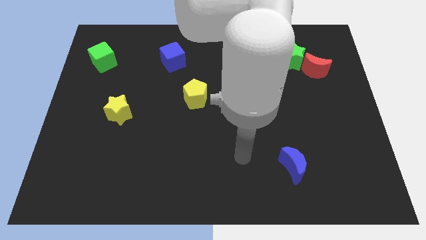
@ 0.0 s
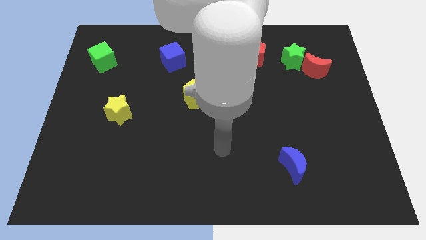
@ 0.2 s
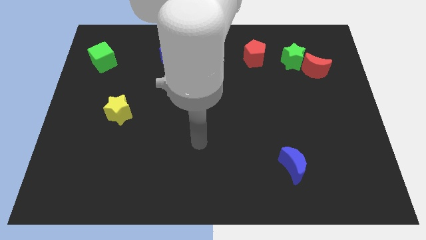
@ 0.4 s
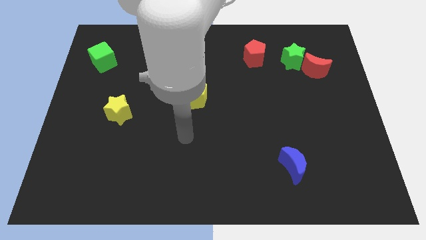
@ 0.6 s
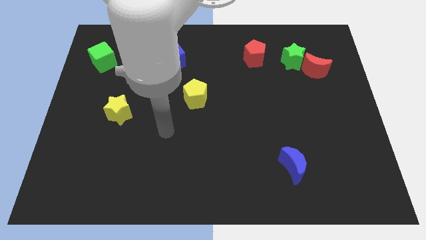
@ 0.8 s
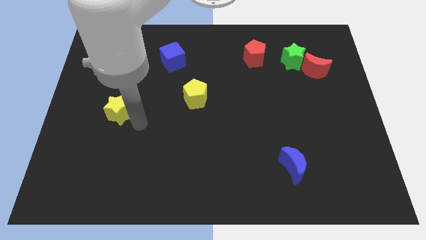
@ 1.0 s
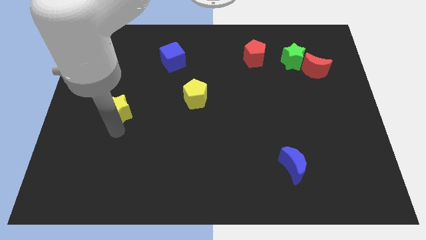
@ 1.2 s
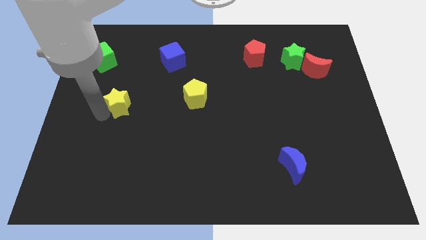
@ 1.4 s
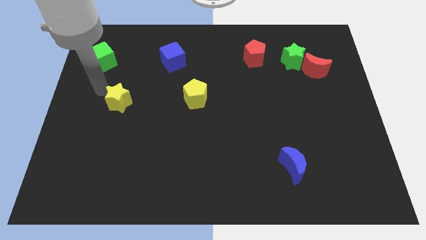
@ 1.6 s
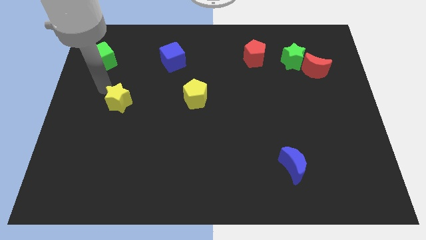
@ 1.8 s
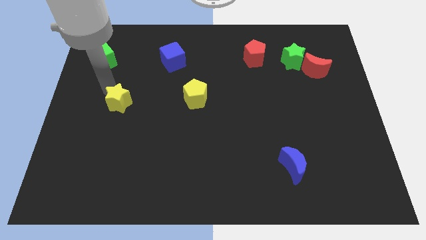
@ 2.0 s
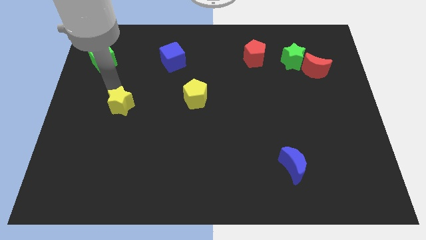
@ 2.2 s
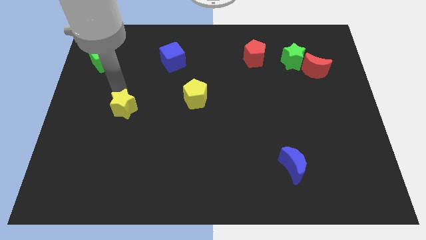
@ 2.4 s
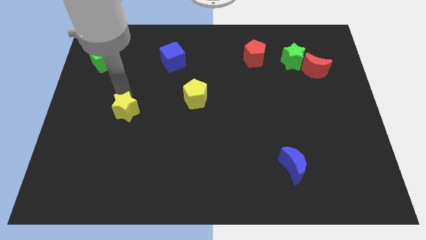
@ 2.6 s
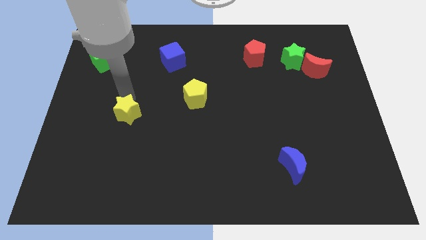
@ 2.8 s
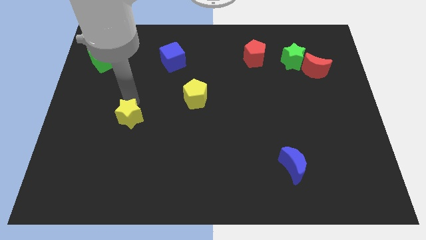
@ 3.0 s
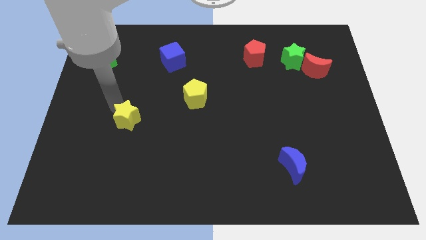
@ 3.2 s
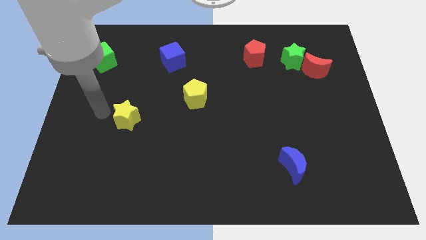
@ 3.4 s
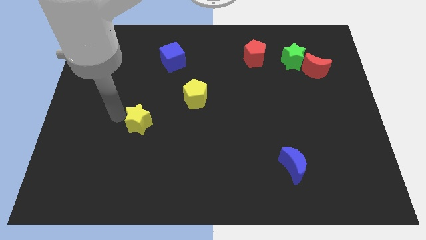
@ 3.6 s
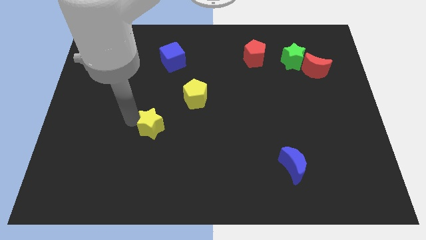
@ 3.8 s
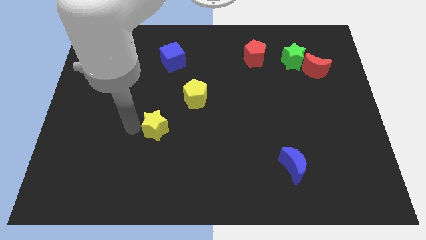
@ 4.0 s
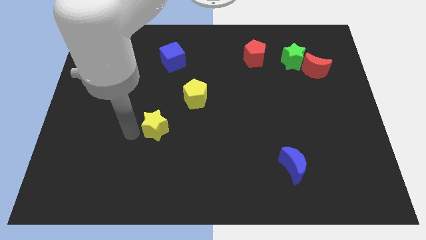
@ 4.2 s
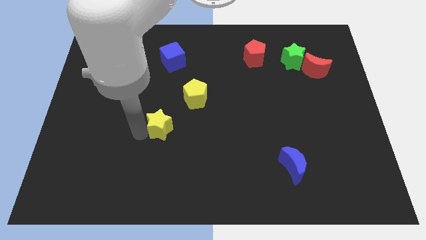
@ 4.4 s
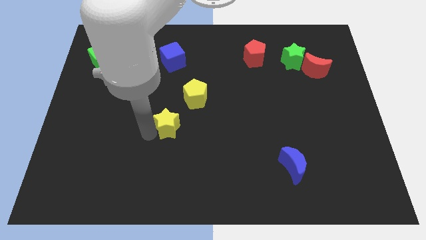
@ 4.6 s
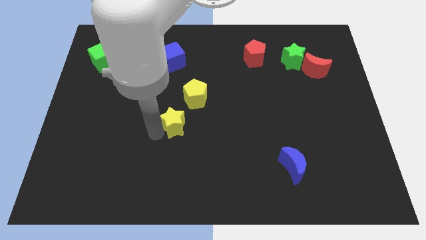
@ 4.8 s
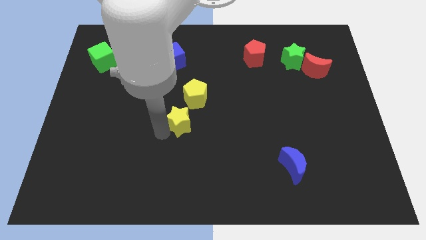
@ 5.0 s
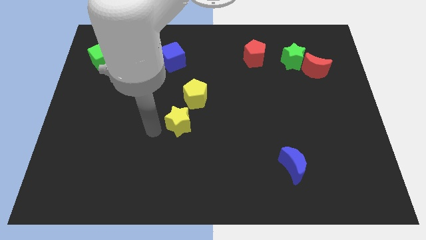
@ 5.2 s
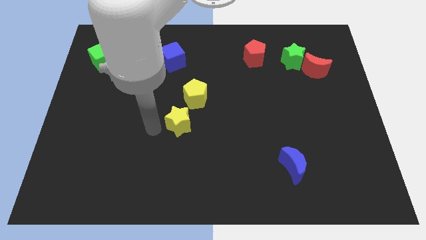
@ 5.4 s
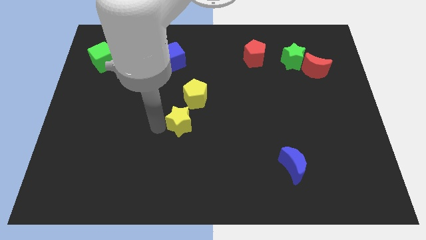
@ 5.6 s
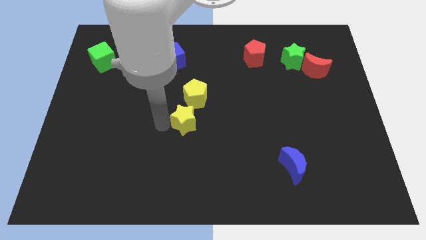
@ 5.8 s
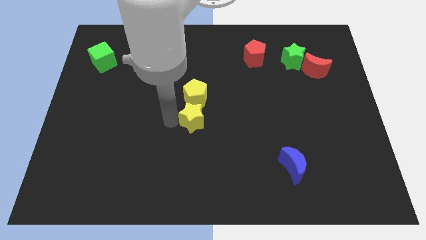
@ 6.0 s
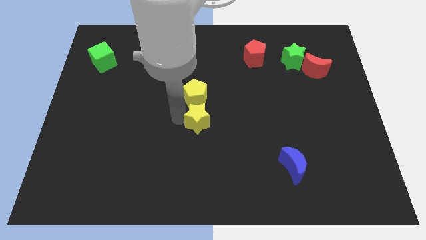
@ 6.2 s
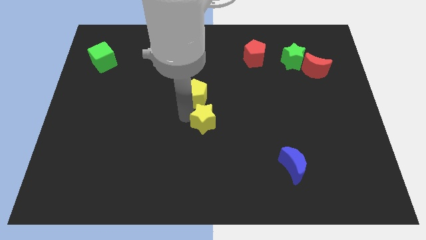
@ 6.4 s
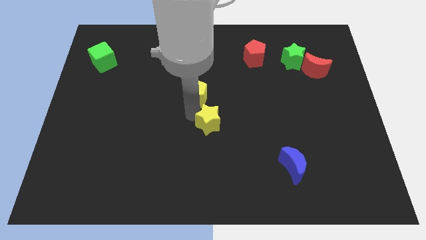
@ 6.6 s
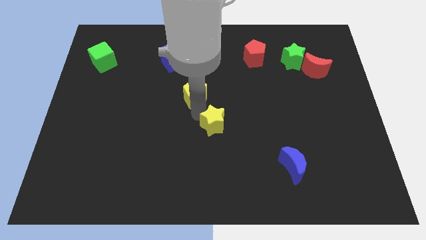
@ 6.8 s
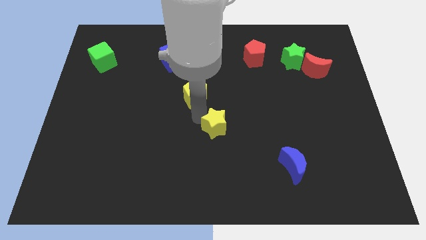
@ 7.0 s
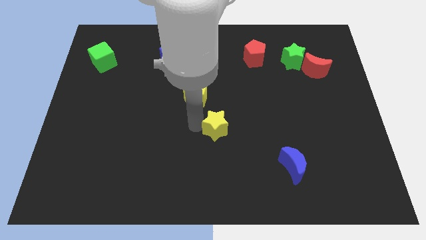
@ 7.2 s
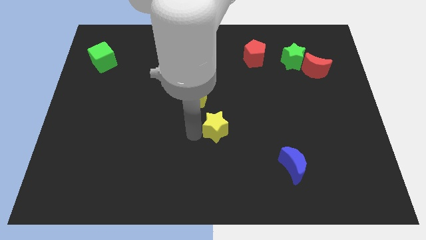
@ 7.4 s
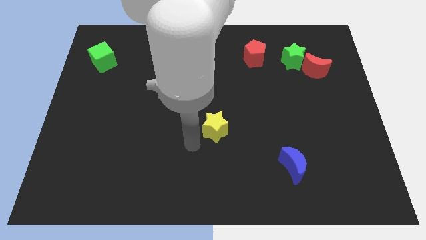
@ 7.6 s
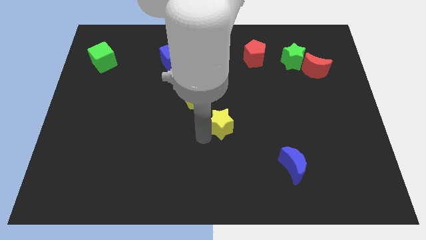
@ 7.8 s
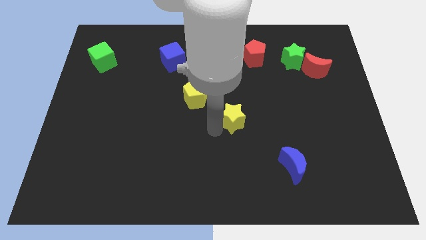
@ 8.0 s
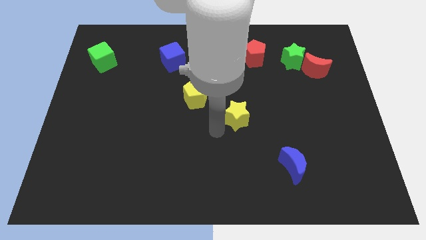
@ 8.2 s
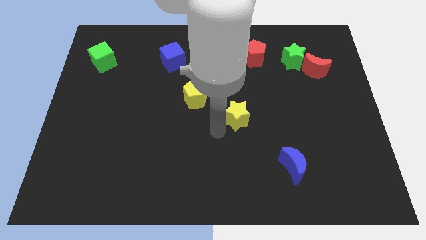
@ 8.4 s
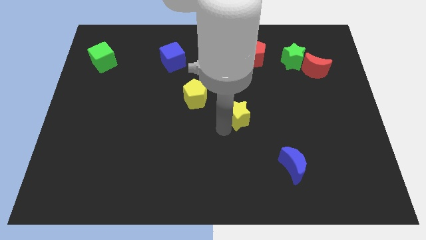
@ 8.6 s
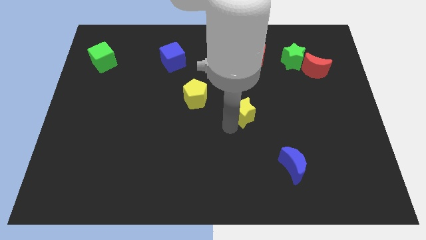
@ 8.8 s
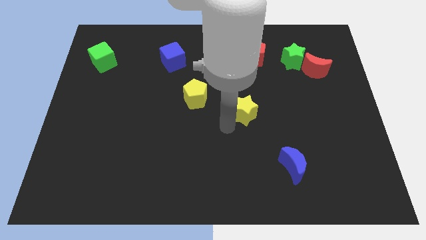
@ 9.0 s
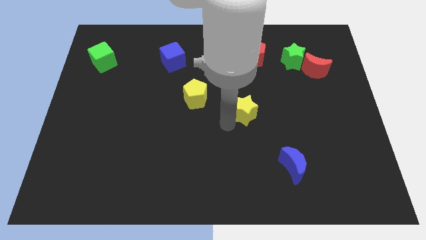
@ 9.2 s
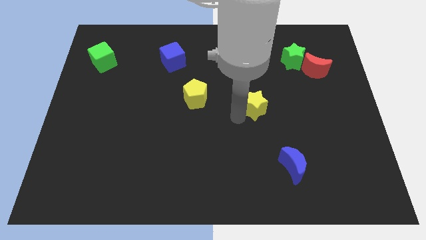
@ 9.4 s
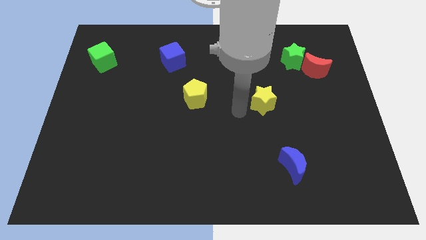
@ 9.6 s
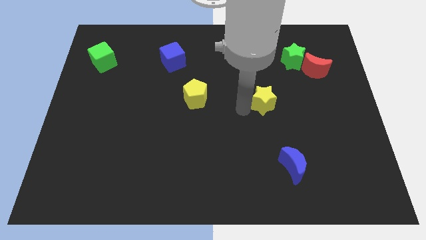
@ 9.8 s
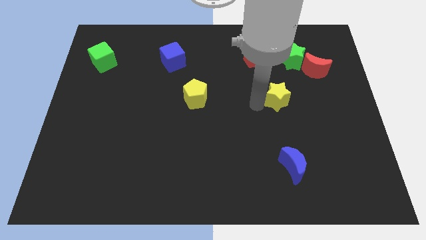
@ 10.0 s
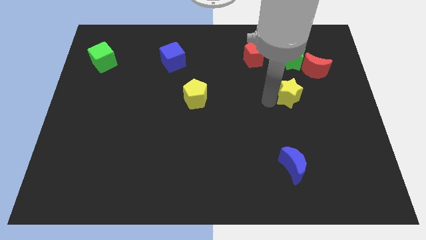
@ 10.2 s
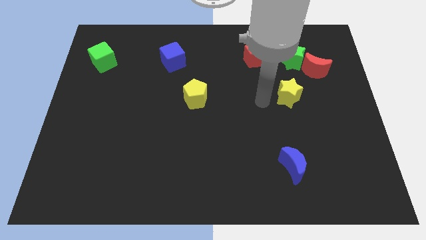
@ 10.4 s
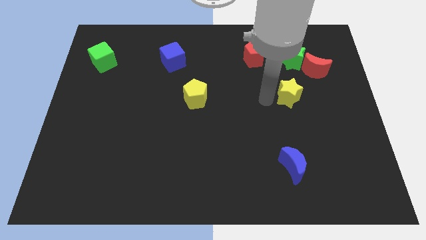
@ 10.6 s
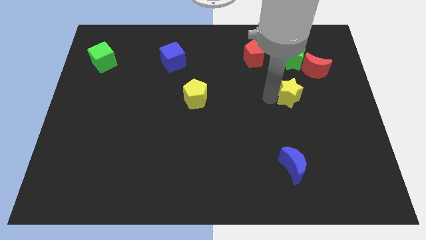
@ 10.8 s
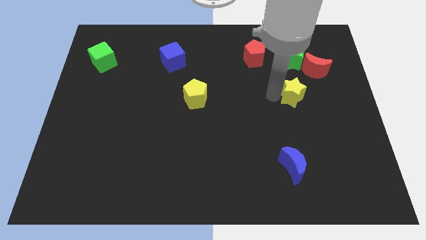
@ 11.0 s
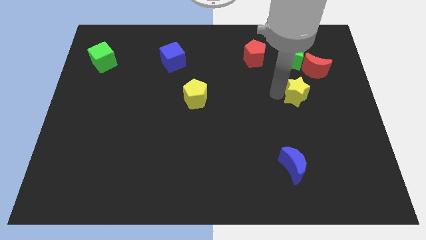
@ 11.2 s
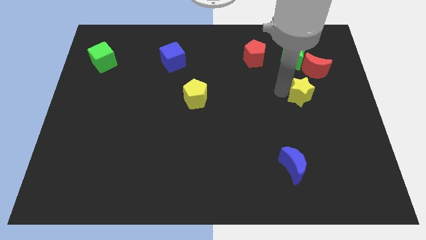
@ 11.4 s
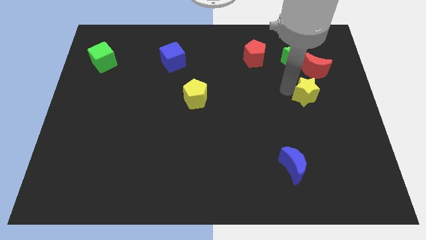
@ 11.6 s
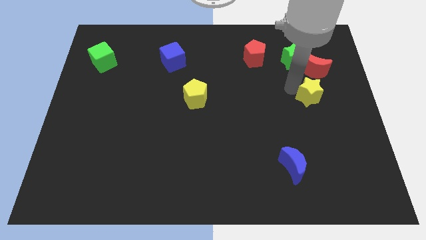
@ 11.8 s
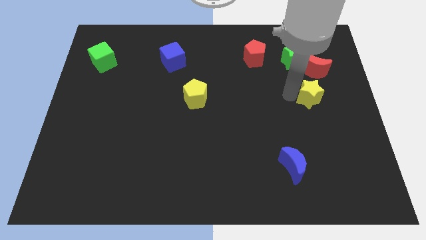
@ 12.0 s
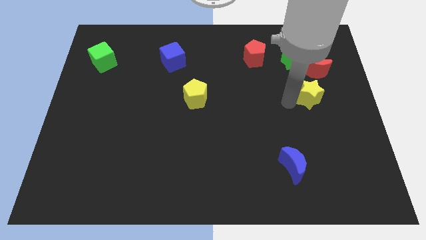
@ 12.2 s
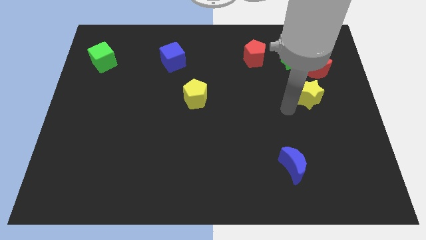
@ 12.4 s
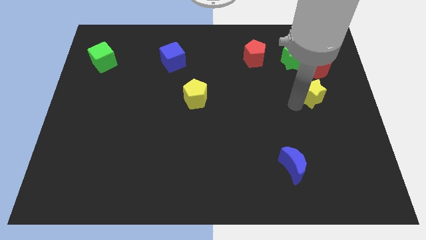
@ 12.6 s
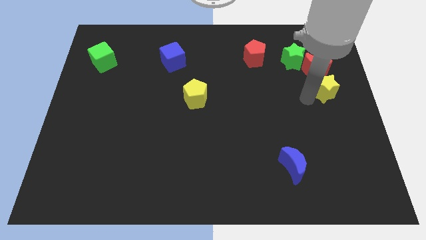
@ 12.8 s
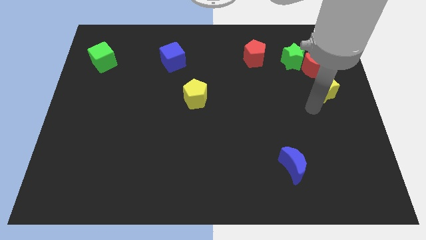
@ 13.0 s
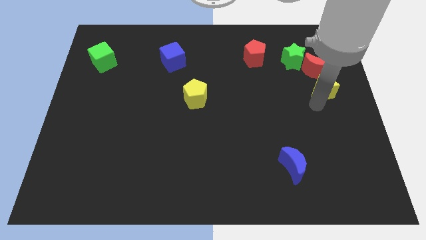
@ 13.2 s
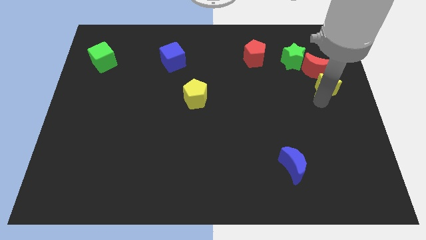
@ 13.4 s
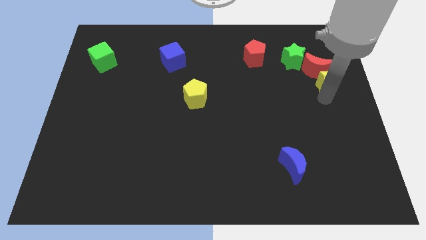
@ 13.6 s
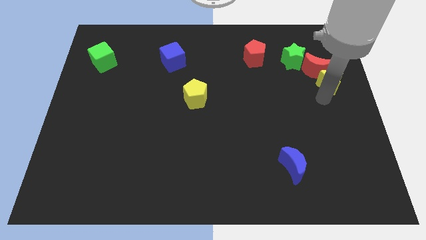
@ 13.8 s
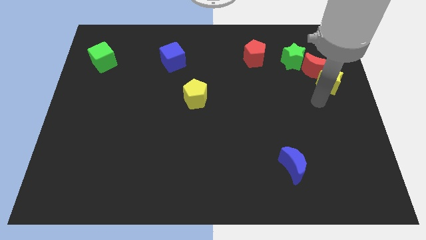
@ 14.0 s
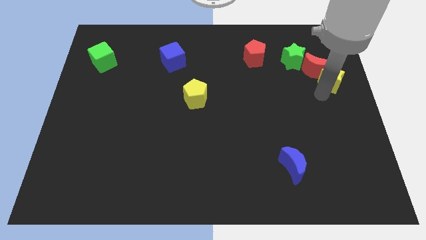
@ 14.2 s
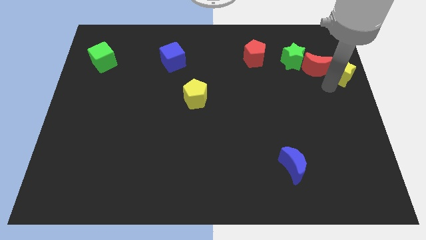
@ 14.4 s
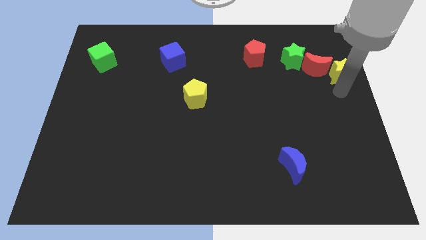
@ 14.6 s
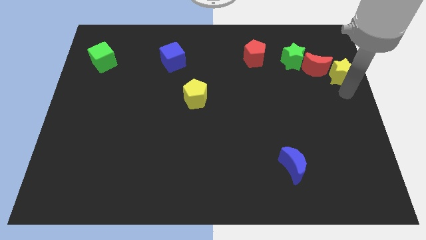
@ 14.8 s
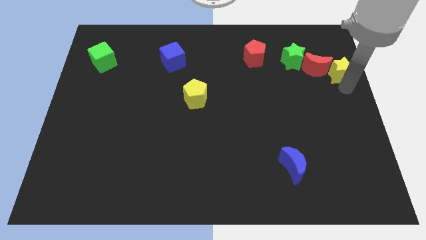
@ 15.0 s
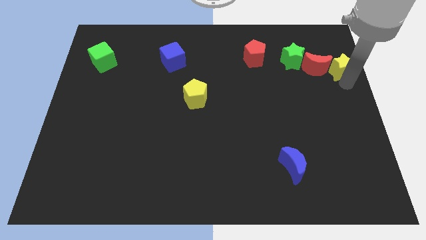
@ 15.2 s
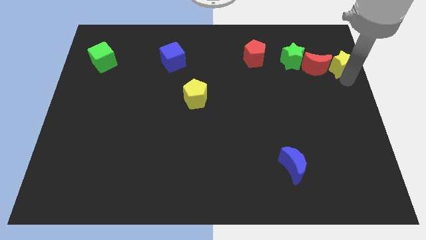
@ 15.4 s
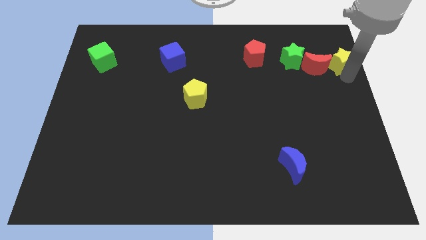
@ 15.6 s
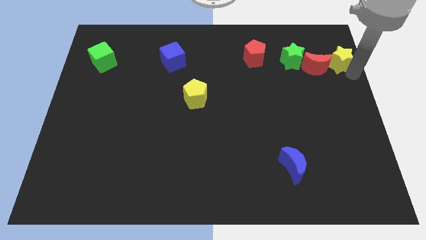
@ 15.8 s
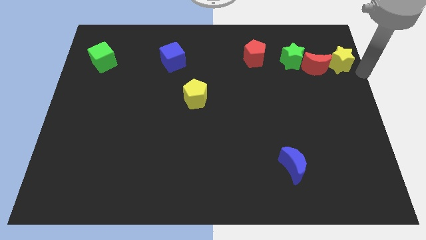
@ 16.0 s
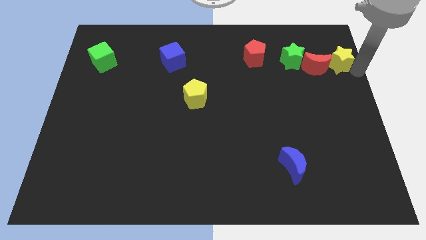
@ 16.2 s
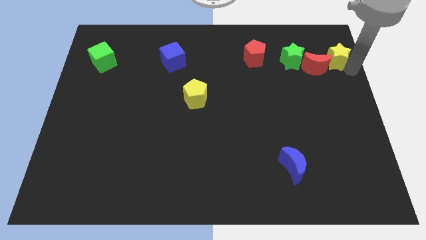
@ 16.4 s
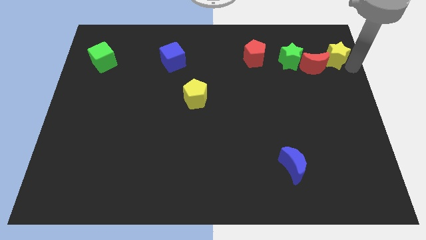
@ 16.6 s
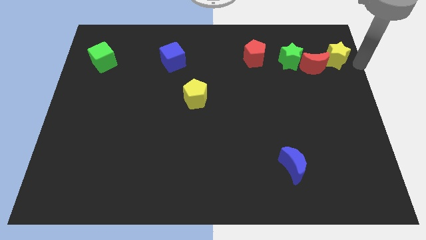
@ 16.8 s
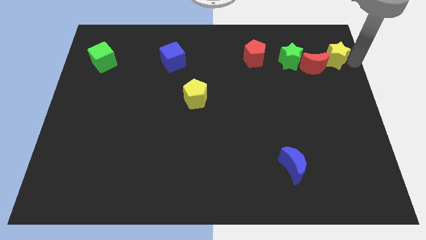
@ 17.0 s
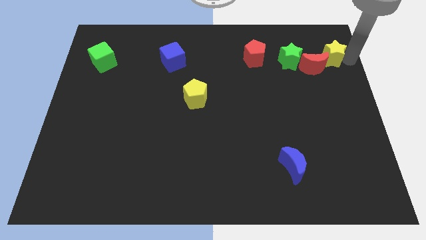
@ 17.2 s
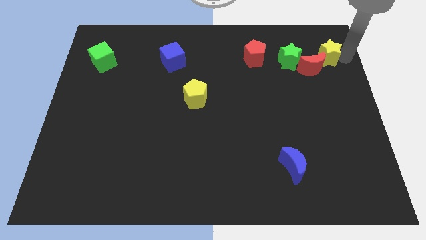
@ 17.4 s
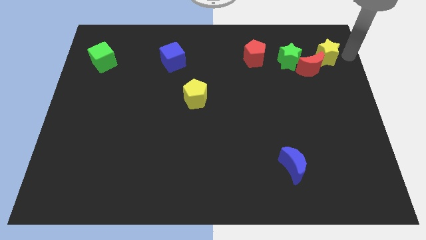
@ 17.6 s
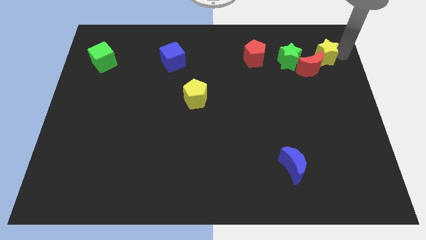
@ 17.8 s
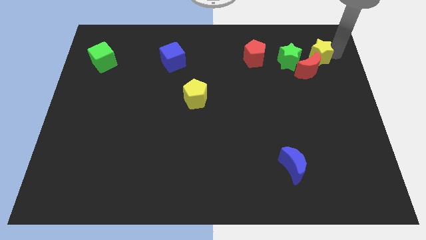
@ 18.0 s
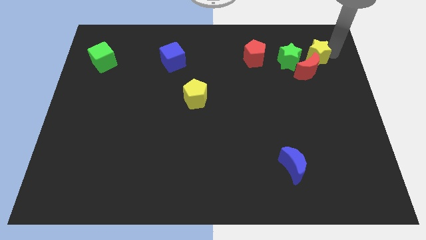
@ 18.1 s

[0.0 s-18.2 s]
move the yellow star to the right of the red pentagon
